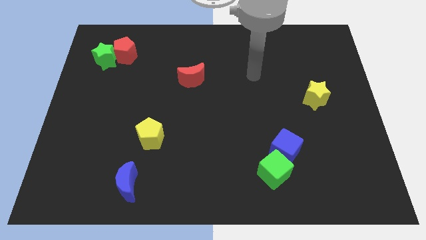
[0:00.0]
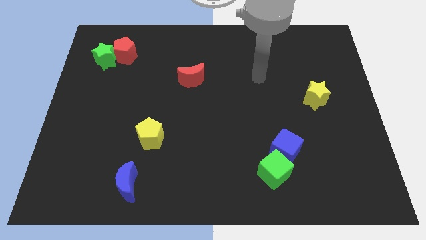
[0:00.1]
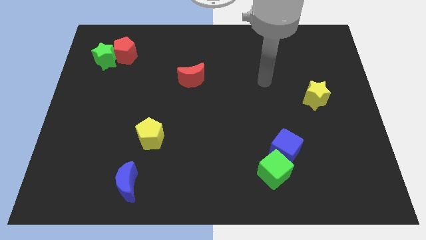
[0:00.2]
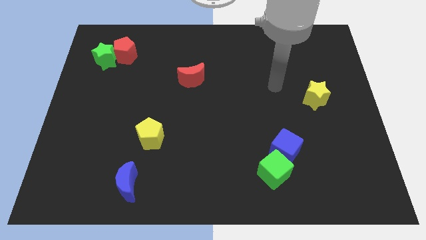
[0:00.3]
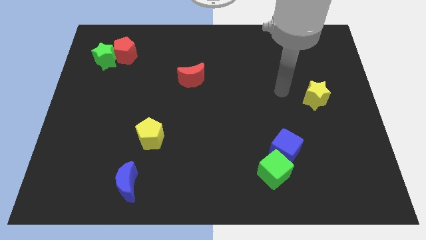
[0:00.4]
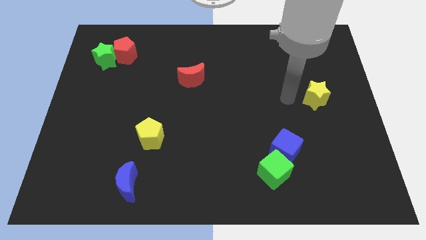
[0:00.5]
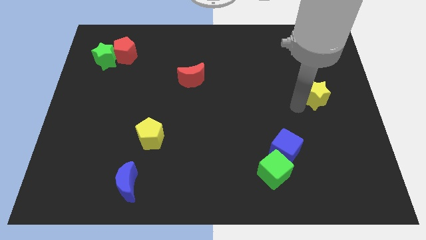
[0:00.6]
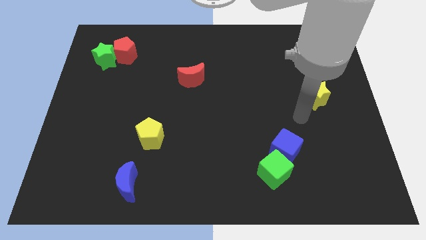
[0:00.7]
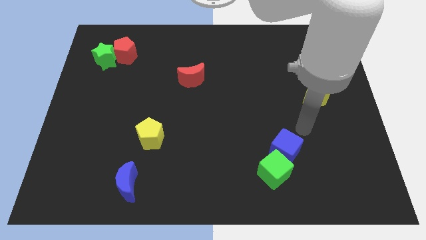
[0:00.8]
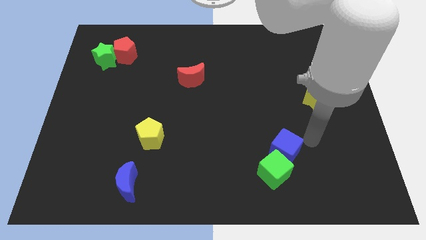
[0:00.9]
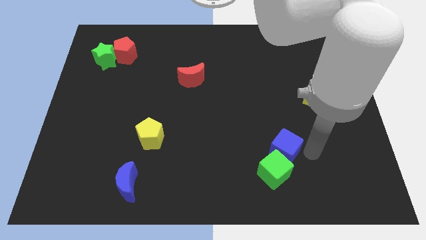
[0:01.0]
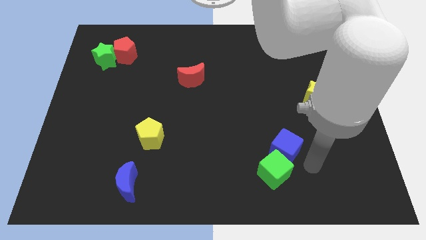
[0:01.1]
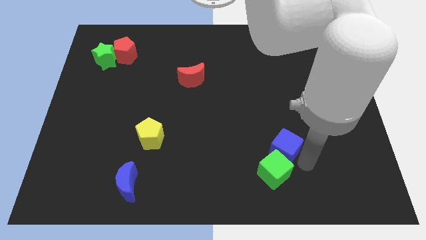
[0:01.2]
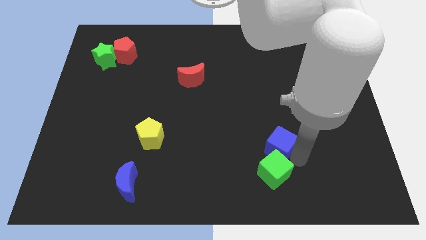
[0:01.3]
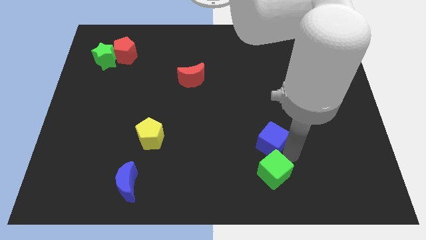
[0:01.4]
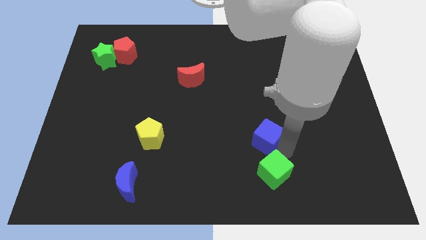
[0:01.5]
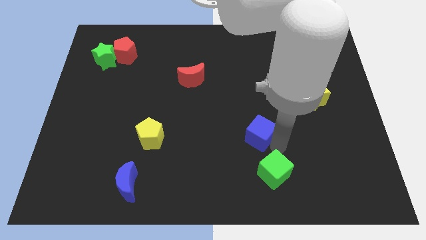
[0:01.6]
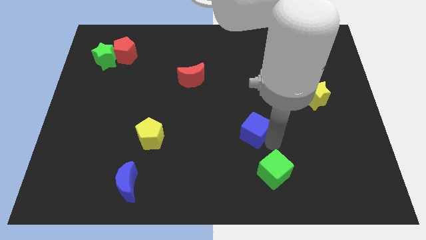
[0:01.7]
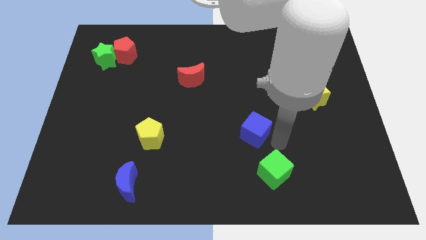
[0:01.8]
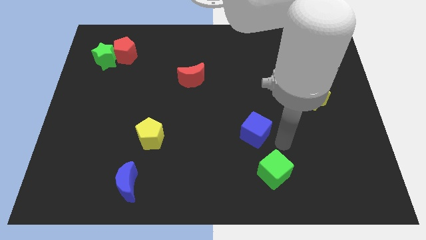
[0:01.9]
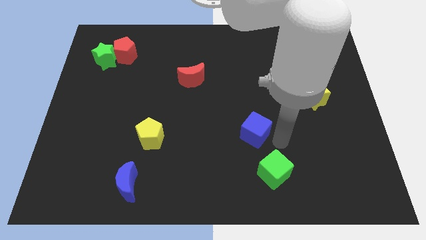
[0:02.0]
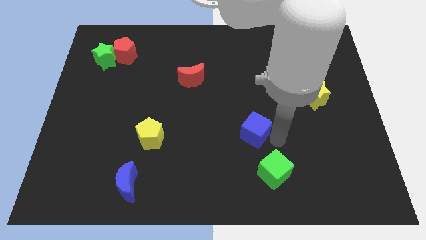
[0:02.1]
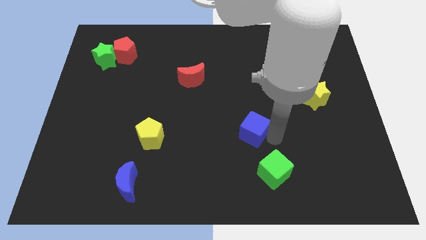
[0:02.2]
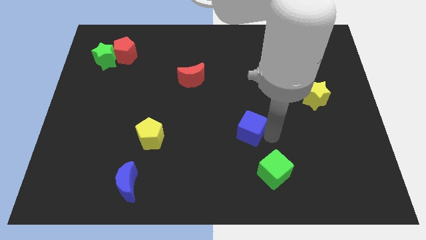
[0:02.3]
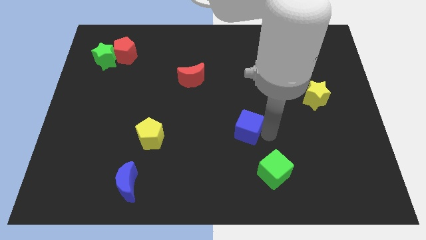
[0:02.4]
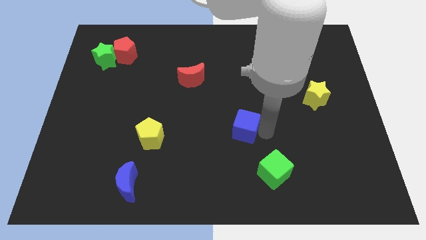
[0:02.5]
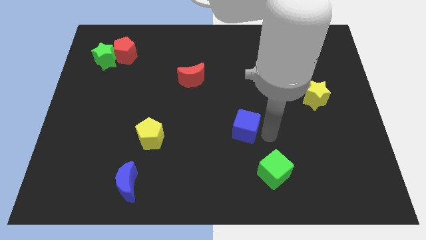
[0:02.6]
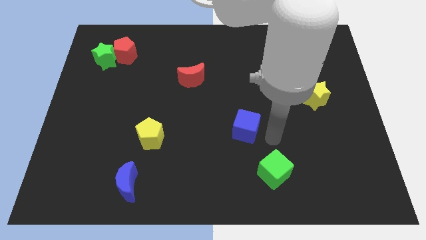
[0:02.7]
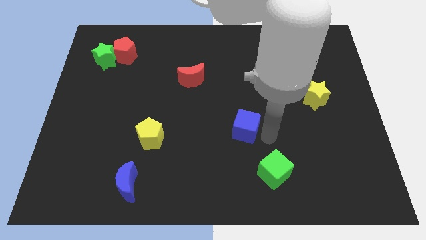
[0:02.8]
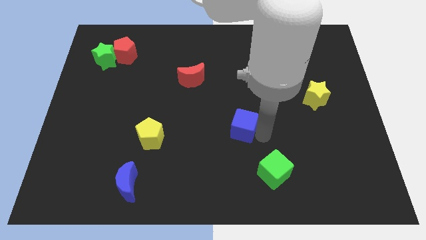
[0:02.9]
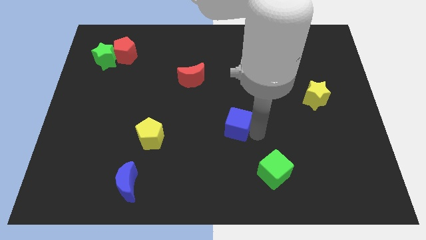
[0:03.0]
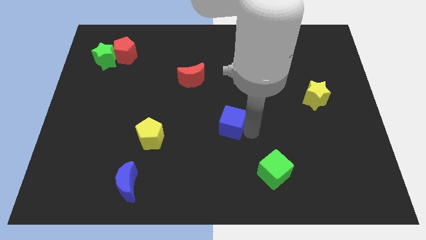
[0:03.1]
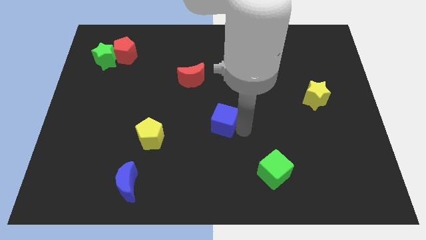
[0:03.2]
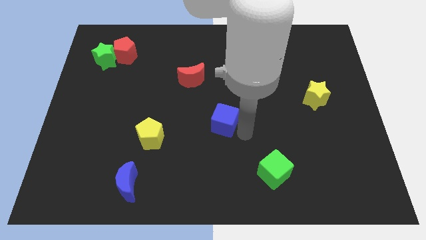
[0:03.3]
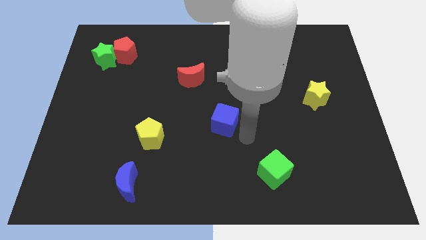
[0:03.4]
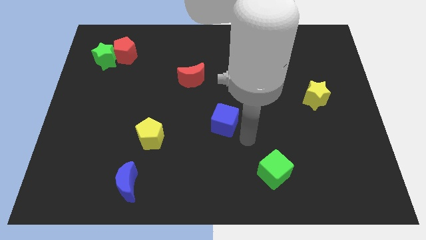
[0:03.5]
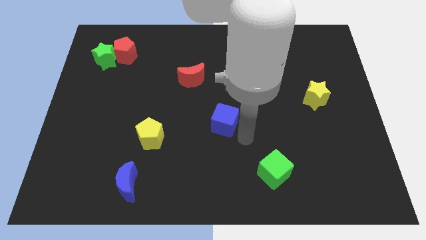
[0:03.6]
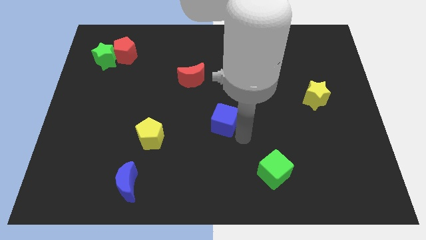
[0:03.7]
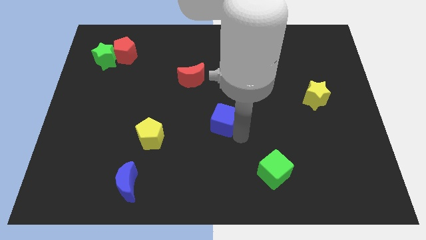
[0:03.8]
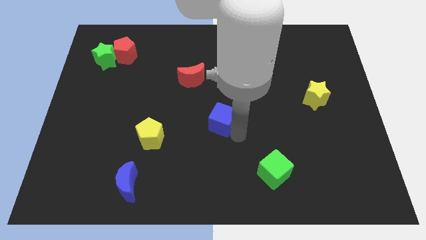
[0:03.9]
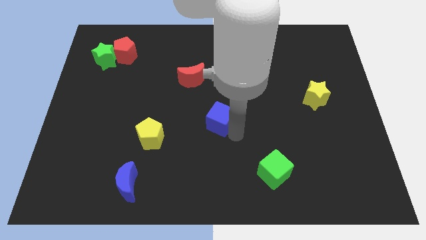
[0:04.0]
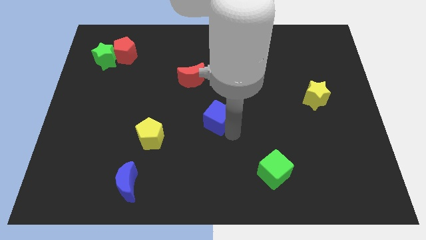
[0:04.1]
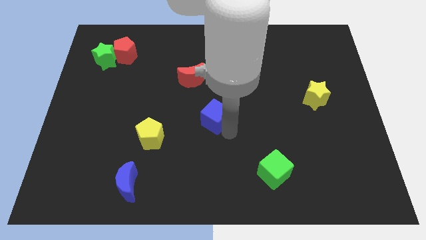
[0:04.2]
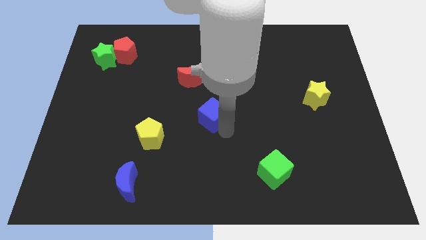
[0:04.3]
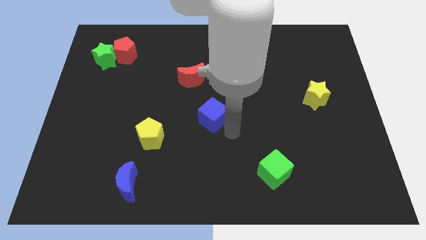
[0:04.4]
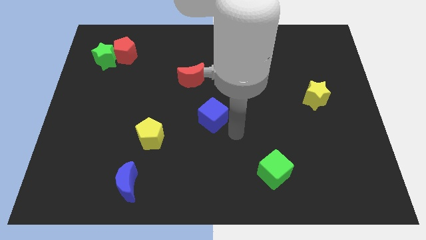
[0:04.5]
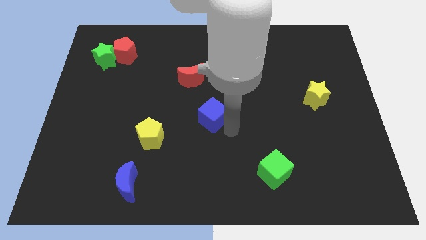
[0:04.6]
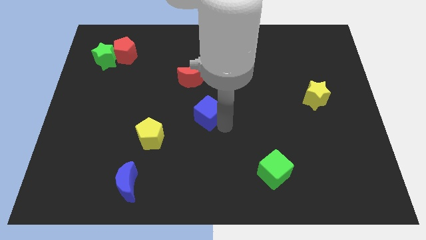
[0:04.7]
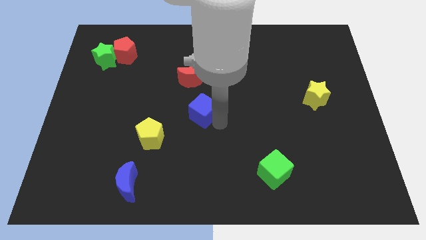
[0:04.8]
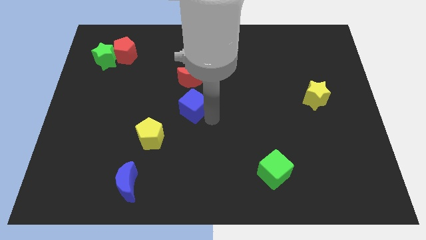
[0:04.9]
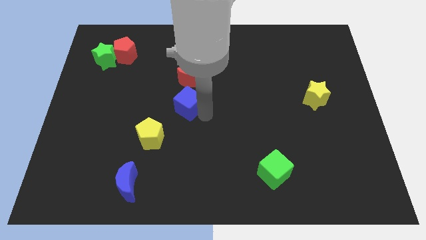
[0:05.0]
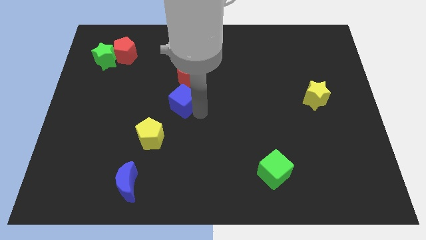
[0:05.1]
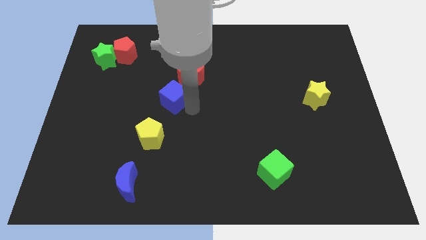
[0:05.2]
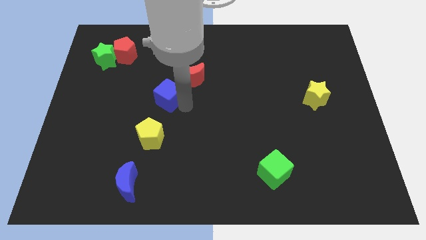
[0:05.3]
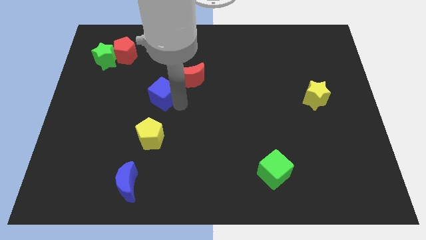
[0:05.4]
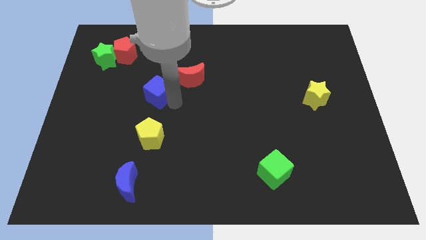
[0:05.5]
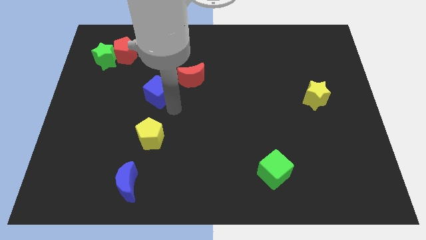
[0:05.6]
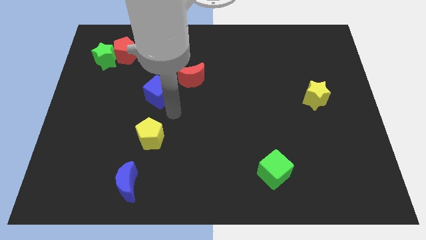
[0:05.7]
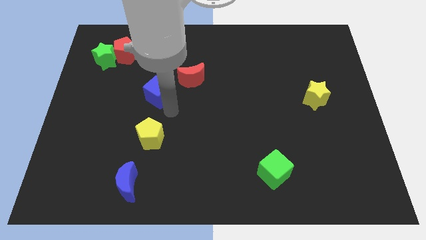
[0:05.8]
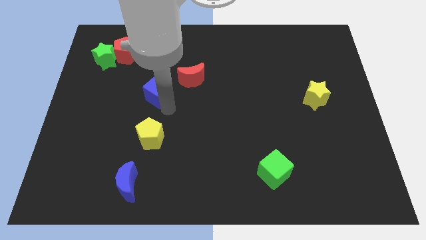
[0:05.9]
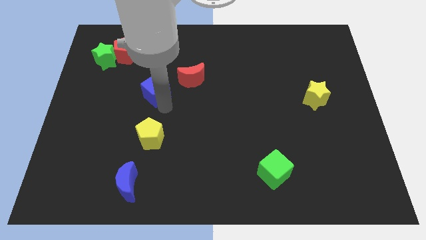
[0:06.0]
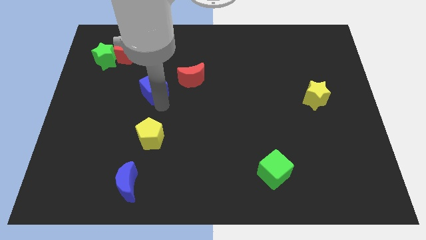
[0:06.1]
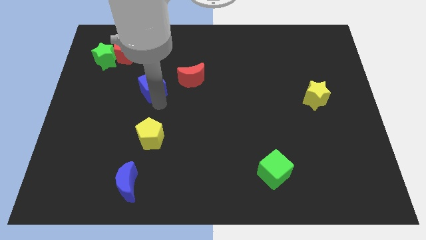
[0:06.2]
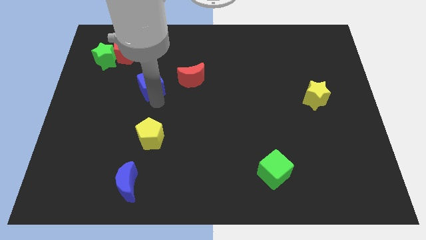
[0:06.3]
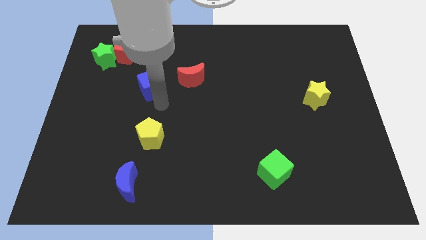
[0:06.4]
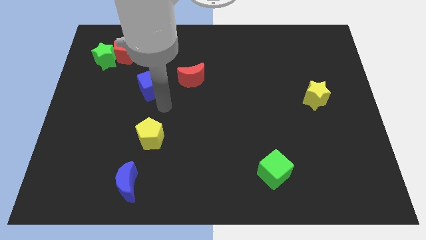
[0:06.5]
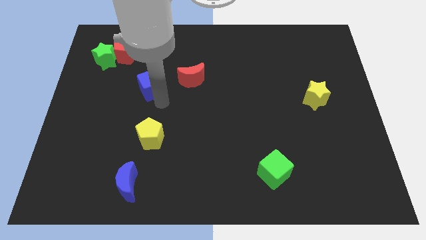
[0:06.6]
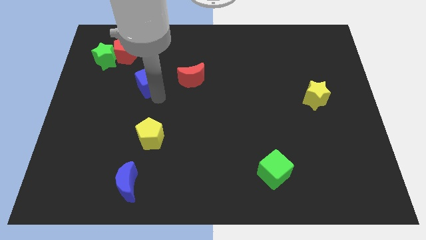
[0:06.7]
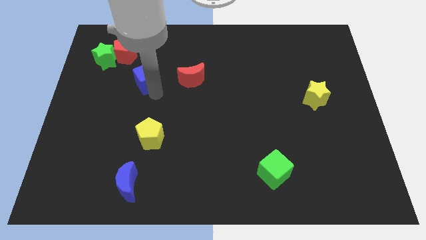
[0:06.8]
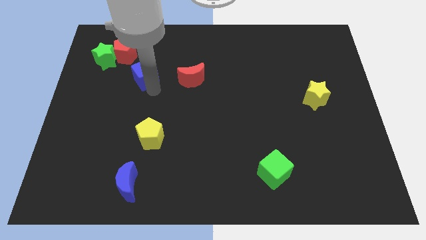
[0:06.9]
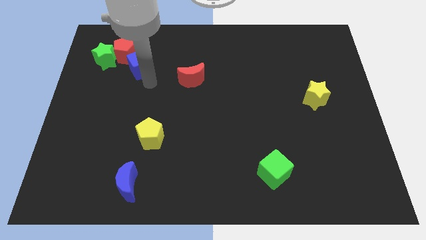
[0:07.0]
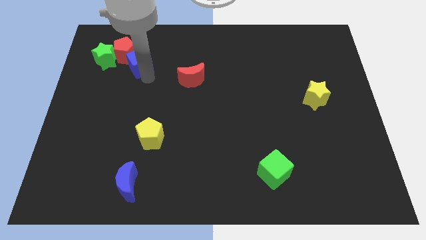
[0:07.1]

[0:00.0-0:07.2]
push the blue cube towards the red pentagon
